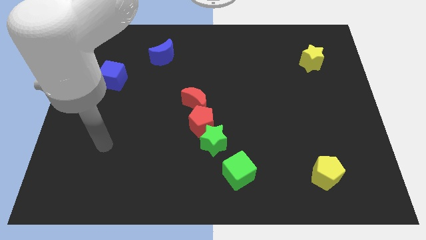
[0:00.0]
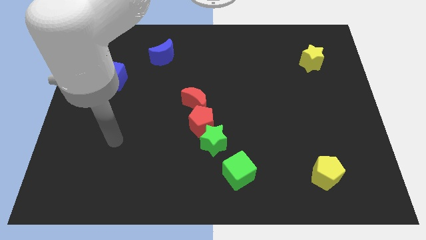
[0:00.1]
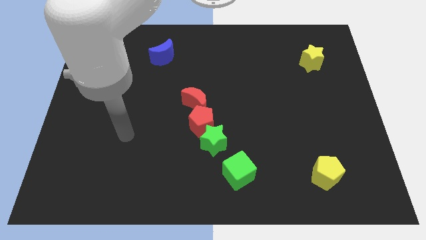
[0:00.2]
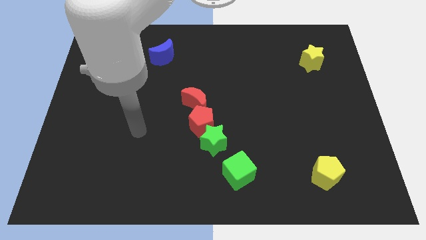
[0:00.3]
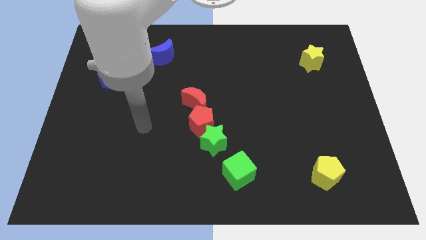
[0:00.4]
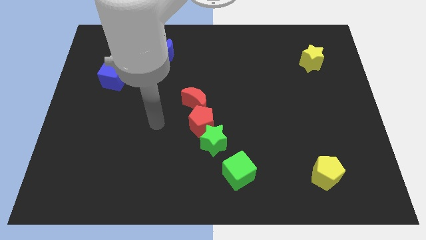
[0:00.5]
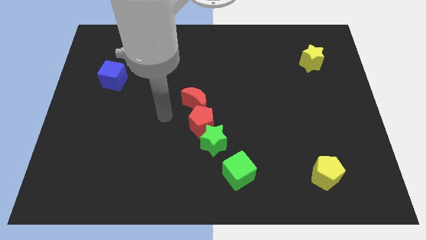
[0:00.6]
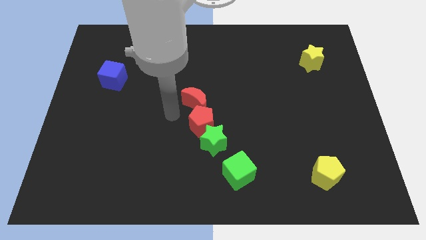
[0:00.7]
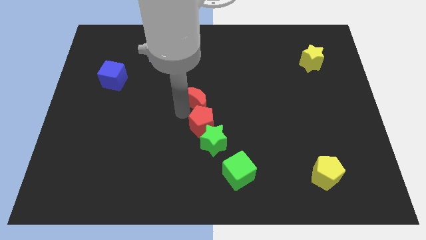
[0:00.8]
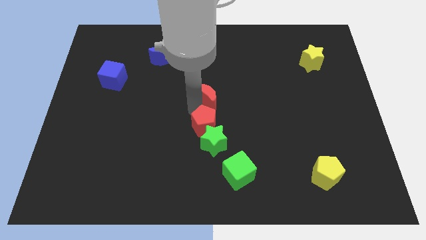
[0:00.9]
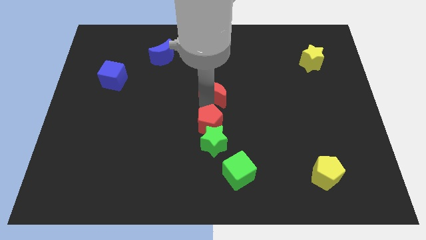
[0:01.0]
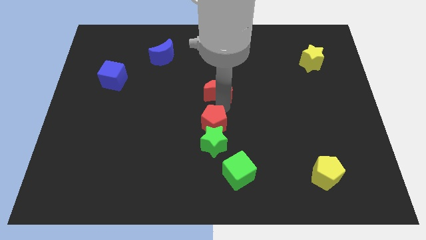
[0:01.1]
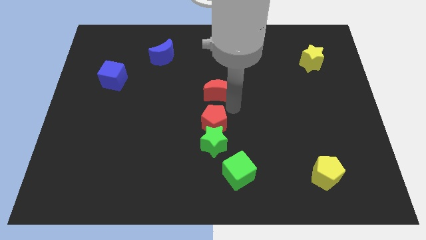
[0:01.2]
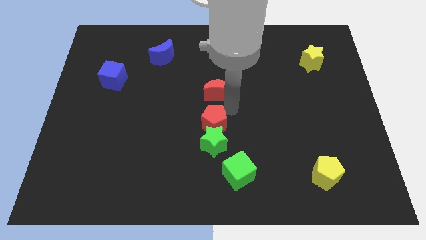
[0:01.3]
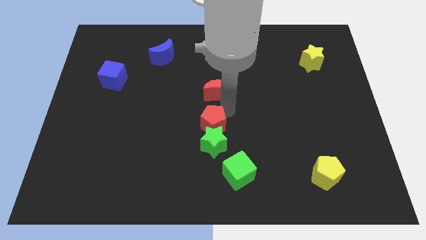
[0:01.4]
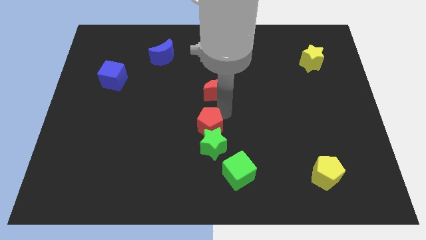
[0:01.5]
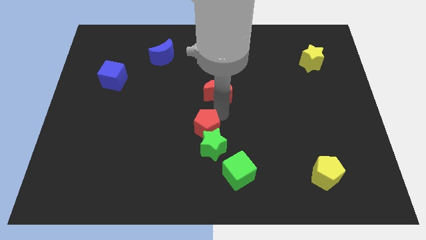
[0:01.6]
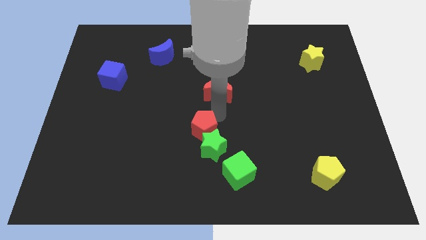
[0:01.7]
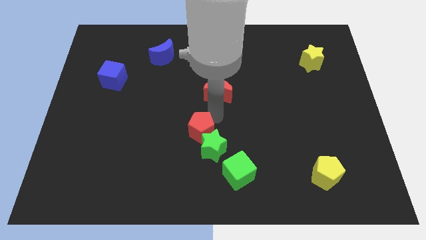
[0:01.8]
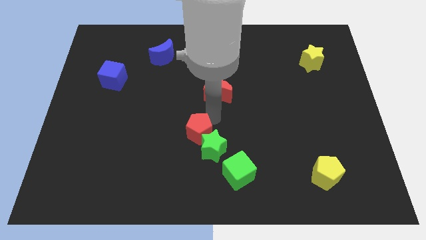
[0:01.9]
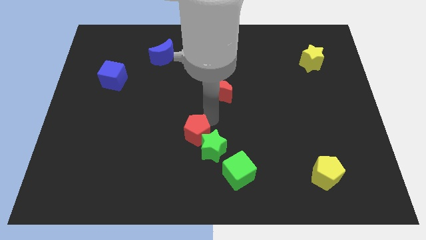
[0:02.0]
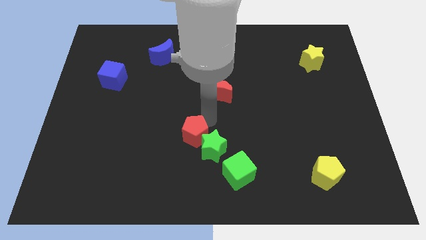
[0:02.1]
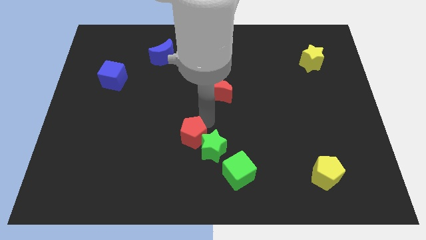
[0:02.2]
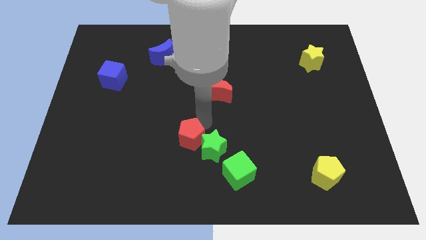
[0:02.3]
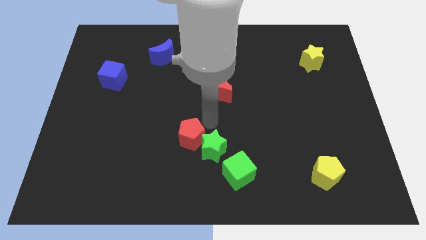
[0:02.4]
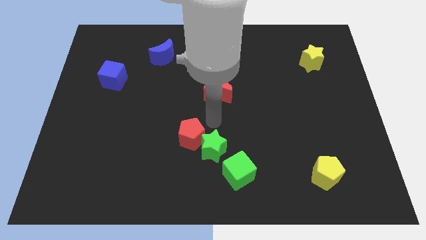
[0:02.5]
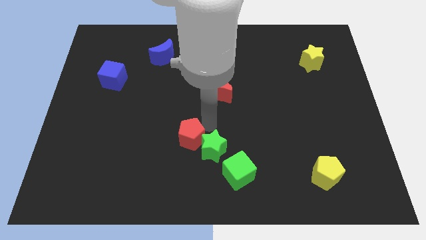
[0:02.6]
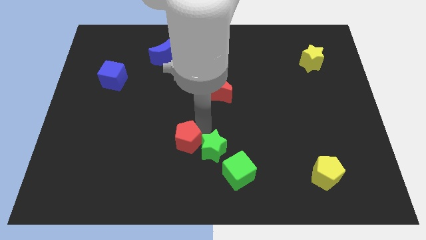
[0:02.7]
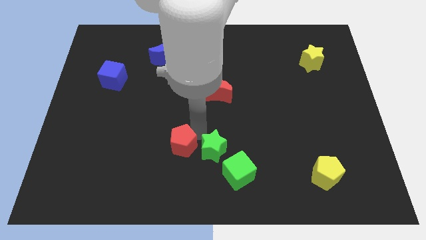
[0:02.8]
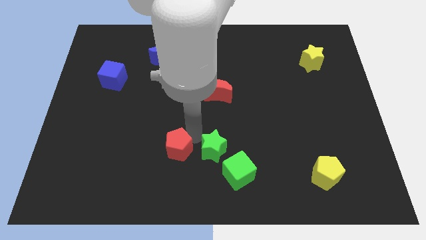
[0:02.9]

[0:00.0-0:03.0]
pull the red pentagon apart from the green star and red moon

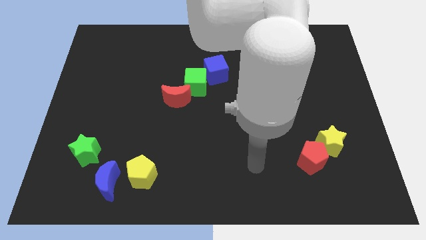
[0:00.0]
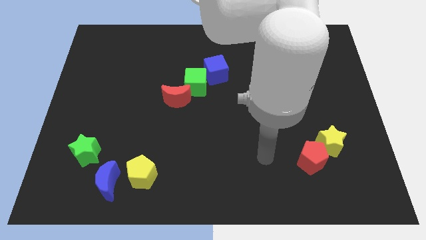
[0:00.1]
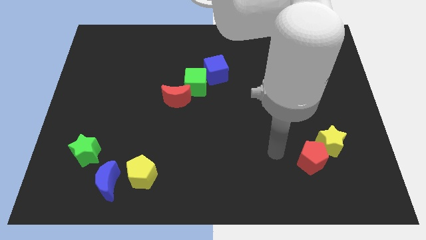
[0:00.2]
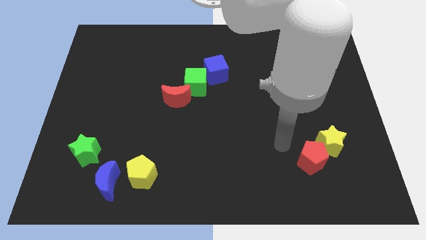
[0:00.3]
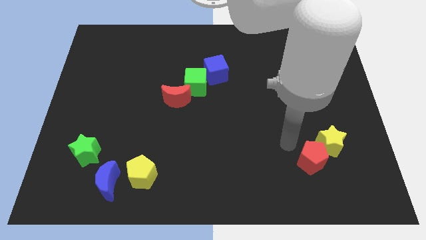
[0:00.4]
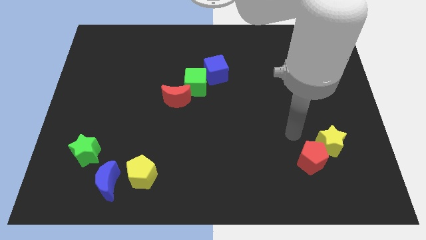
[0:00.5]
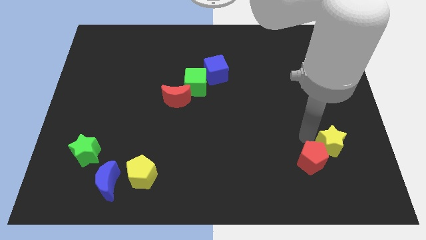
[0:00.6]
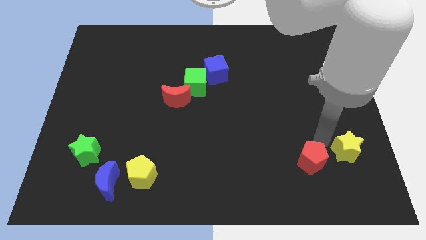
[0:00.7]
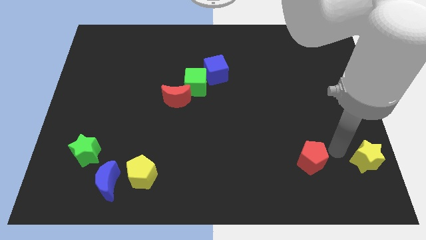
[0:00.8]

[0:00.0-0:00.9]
pull the red pentagon apart from the yellow star

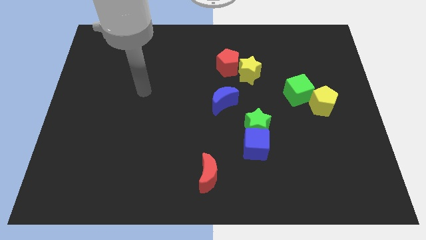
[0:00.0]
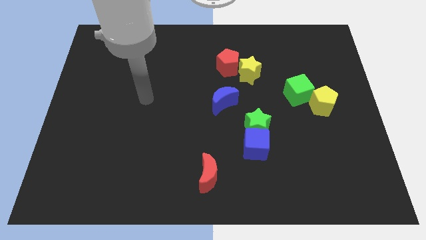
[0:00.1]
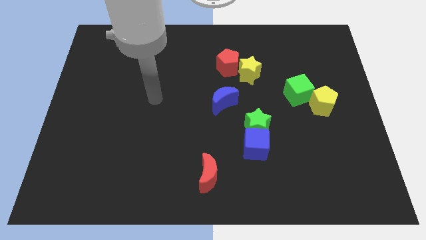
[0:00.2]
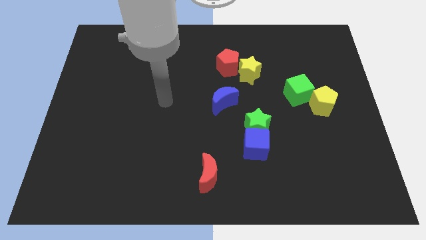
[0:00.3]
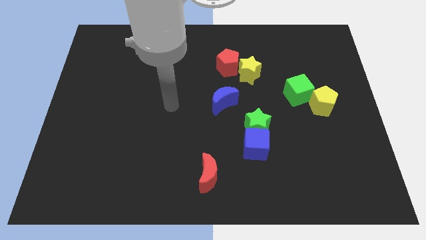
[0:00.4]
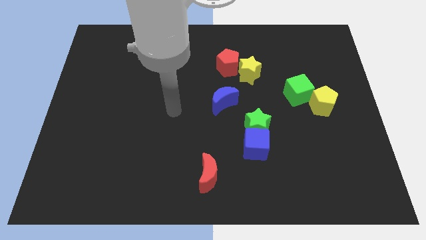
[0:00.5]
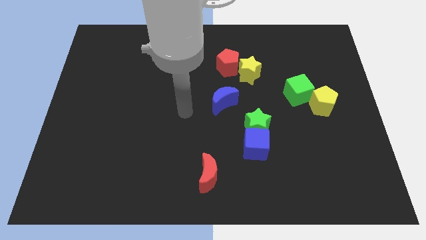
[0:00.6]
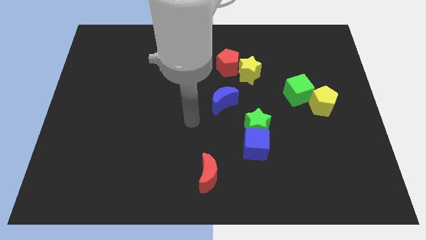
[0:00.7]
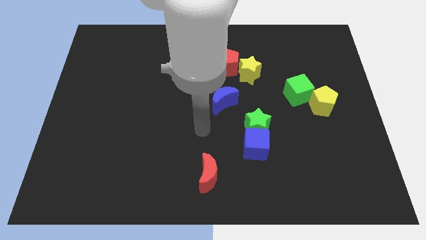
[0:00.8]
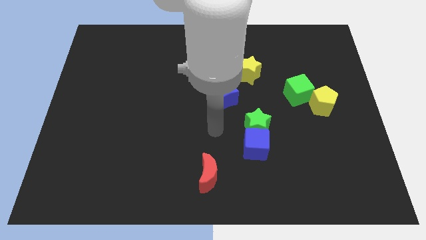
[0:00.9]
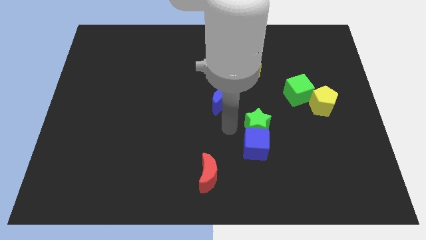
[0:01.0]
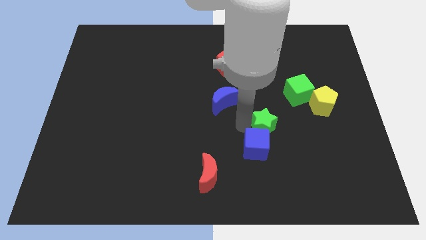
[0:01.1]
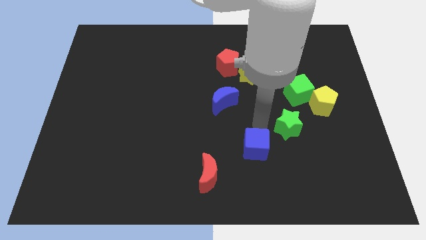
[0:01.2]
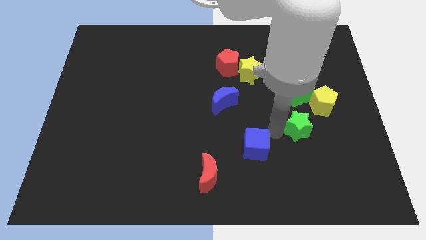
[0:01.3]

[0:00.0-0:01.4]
separate the blue cube from the green star

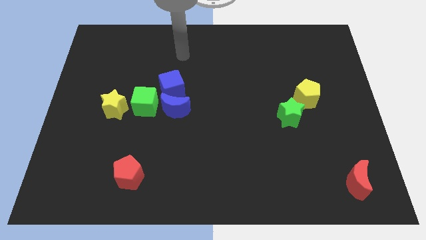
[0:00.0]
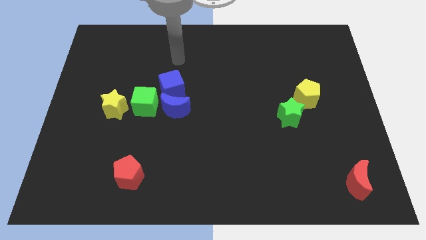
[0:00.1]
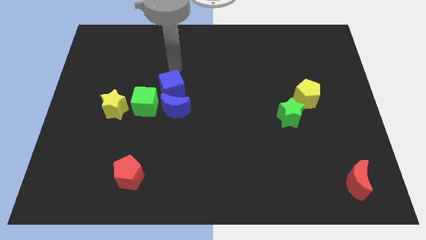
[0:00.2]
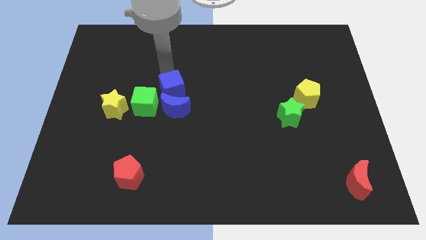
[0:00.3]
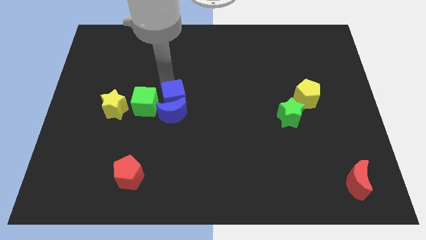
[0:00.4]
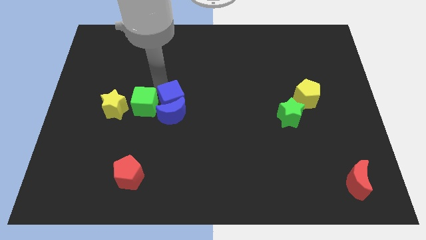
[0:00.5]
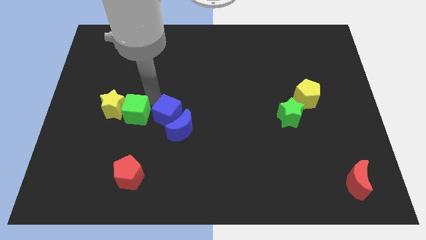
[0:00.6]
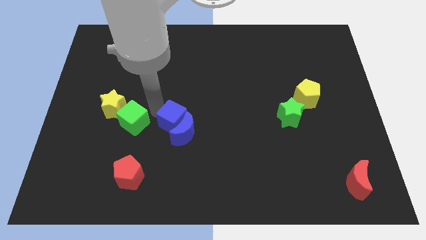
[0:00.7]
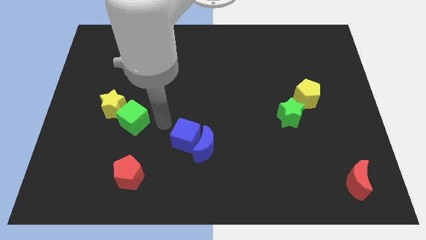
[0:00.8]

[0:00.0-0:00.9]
move the blue moon away from the blue cube and green cube

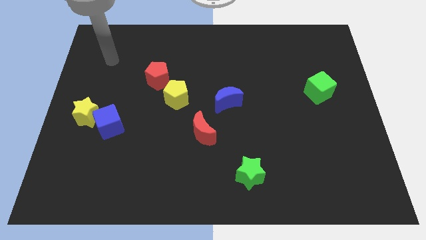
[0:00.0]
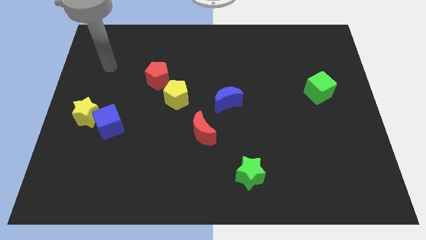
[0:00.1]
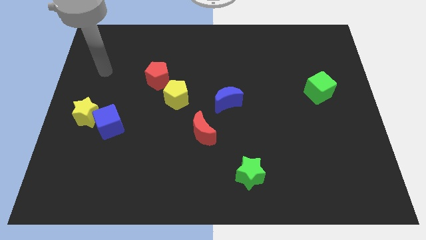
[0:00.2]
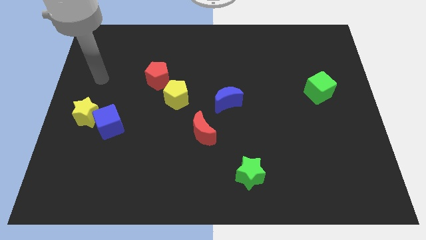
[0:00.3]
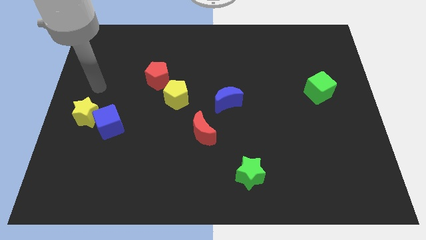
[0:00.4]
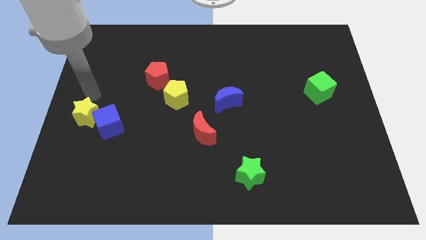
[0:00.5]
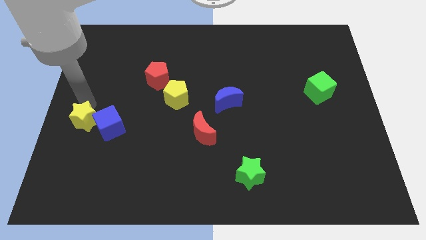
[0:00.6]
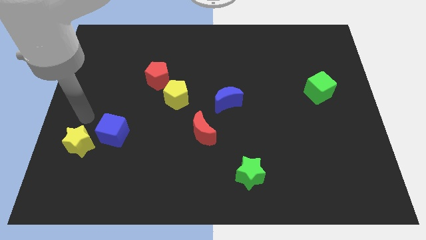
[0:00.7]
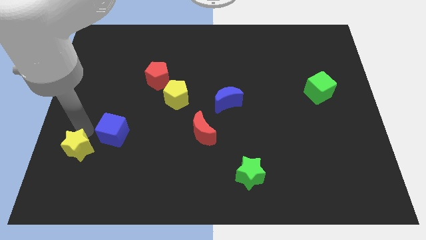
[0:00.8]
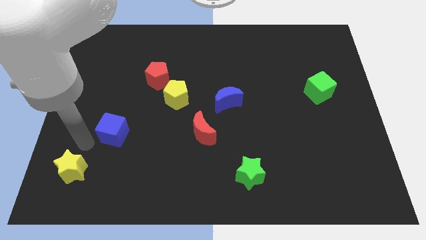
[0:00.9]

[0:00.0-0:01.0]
pull the blue cube apart from the yellow star

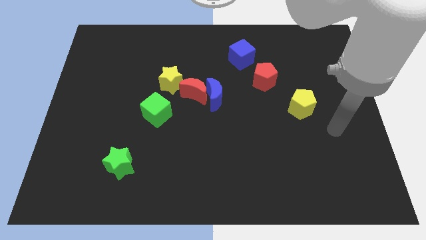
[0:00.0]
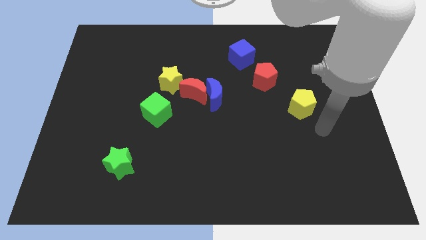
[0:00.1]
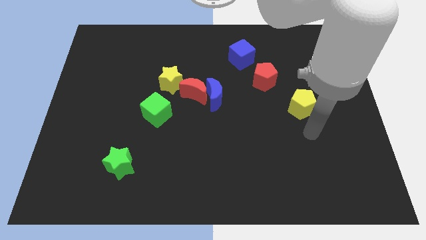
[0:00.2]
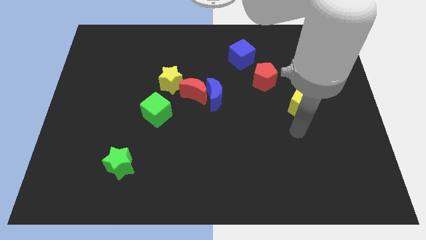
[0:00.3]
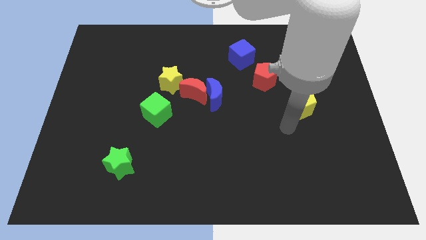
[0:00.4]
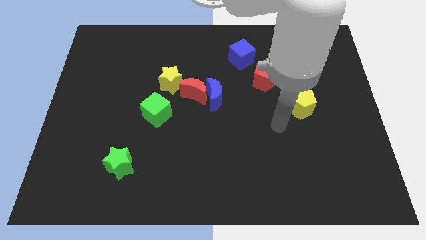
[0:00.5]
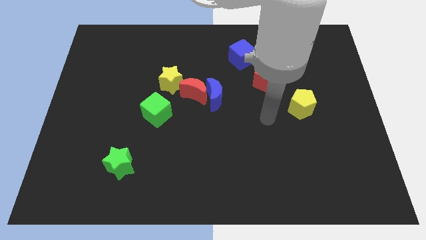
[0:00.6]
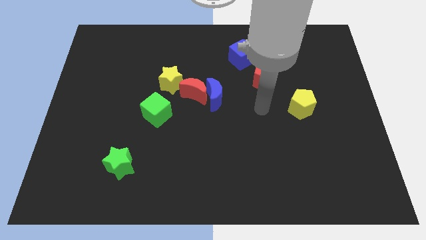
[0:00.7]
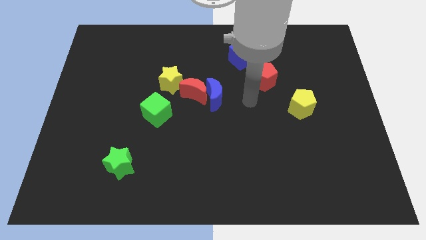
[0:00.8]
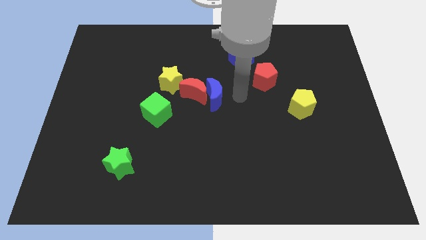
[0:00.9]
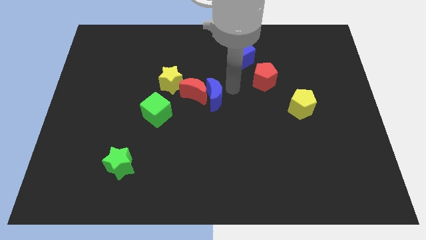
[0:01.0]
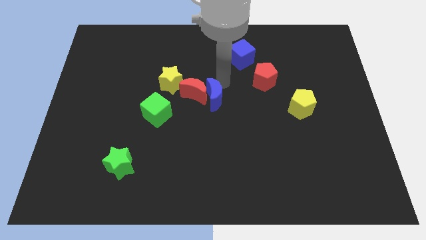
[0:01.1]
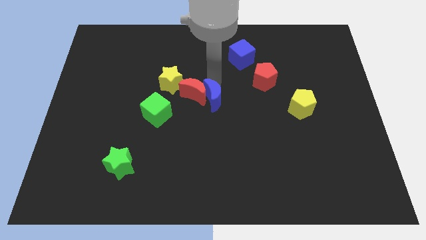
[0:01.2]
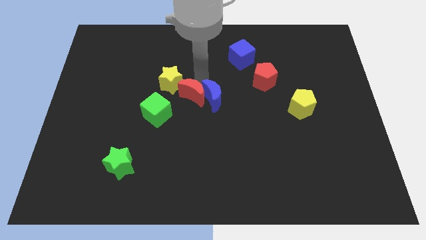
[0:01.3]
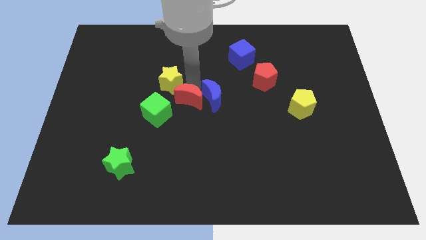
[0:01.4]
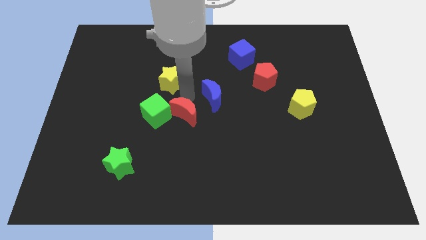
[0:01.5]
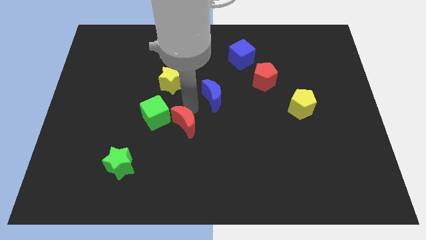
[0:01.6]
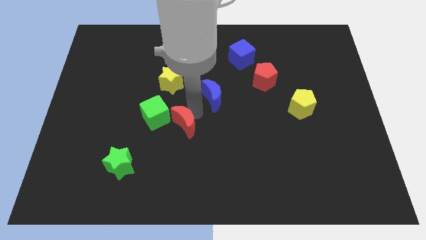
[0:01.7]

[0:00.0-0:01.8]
move the blue moon away from the red moon

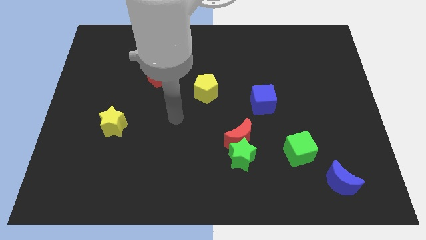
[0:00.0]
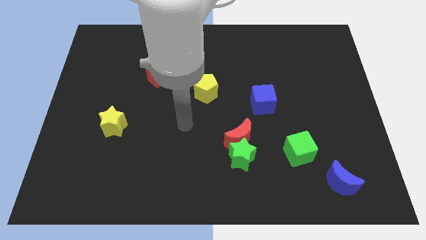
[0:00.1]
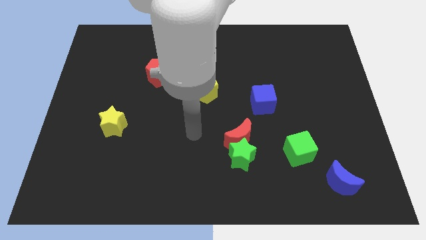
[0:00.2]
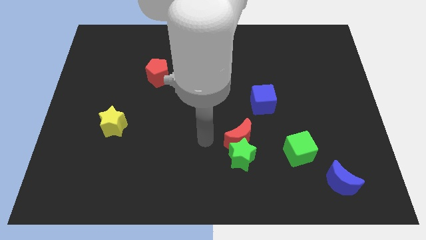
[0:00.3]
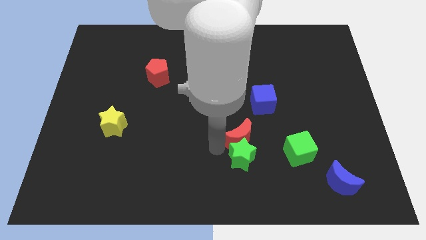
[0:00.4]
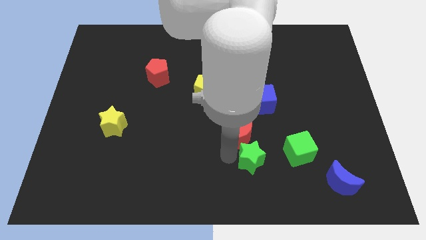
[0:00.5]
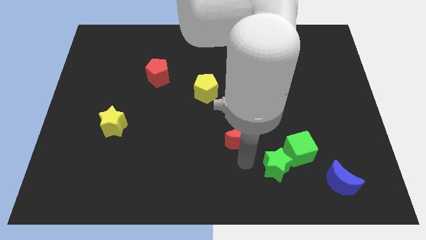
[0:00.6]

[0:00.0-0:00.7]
pull the red moon apart from the green star
